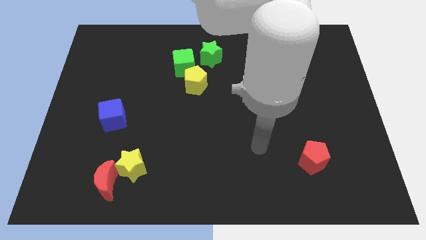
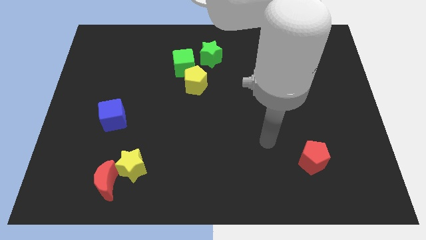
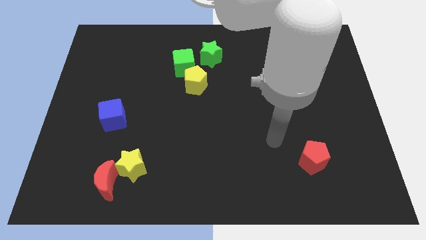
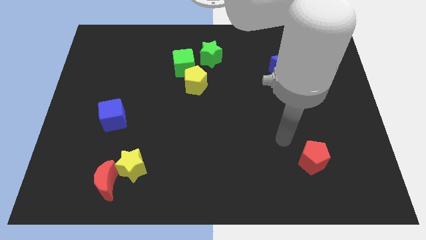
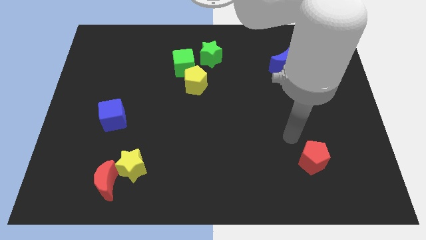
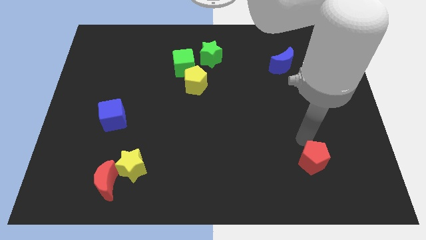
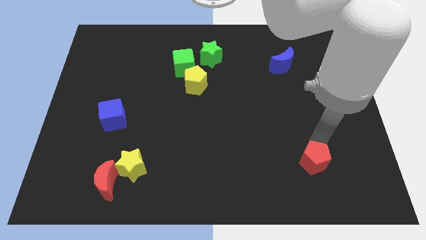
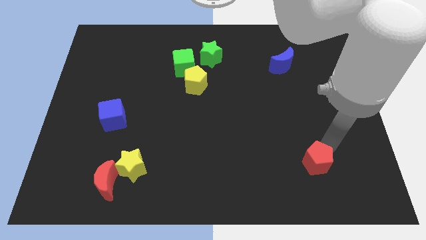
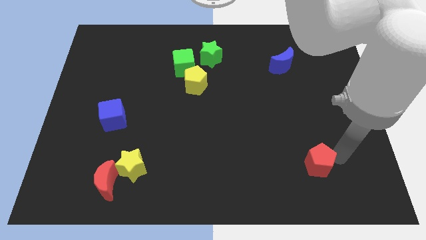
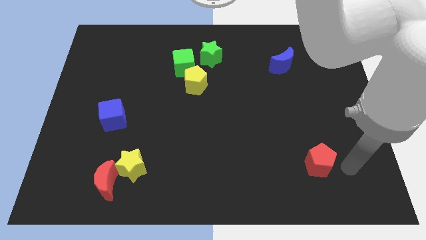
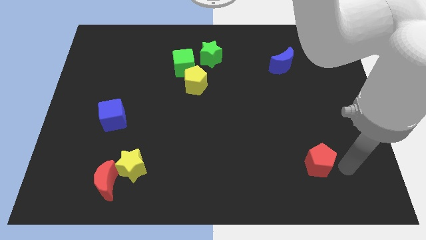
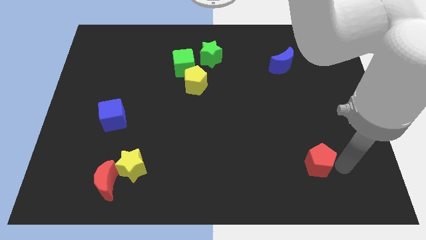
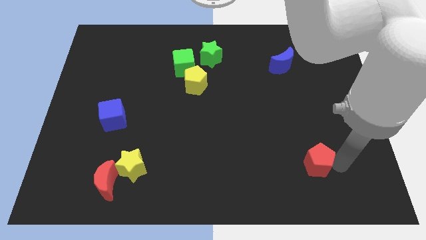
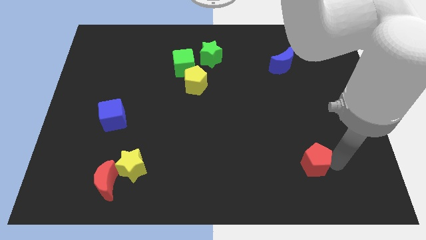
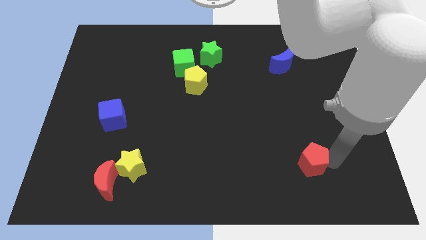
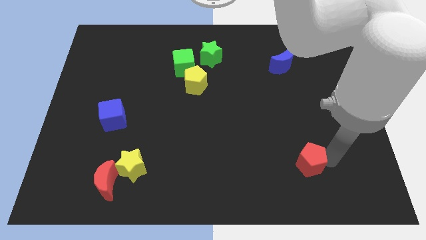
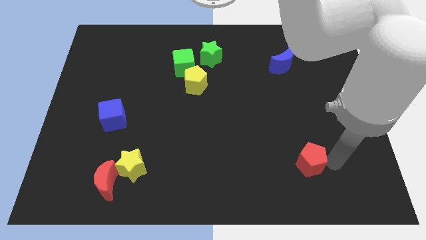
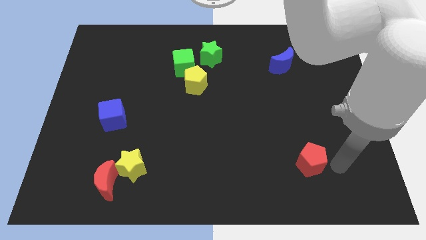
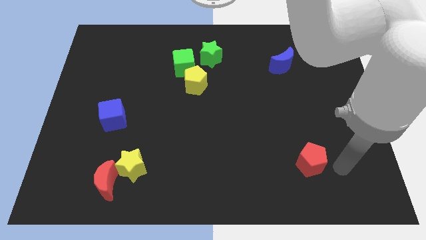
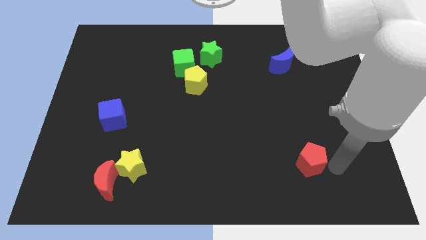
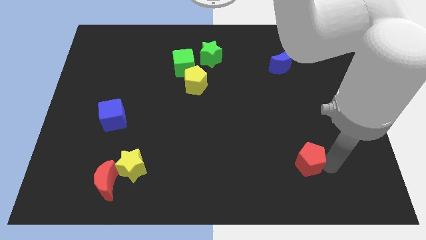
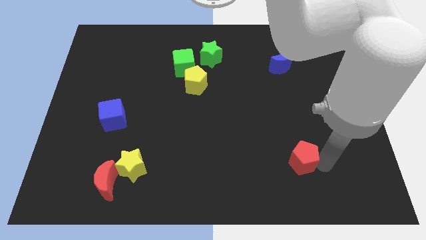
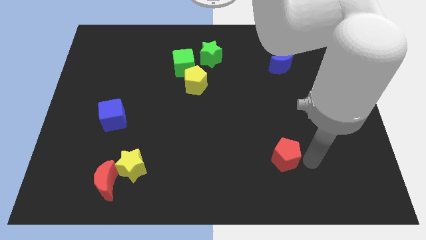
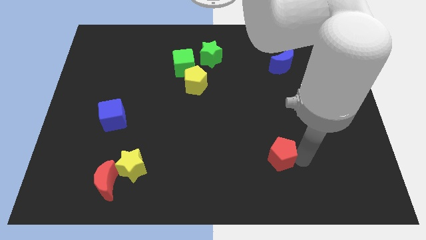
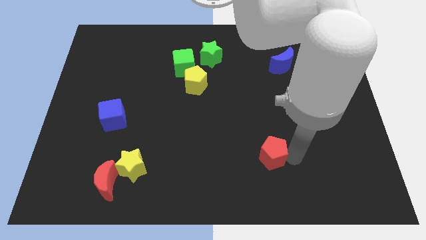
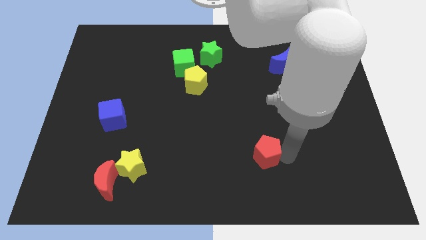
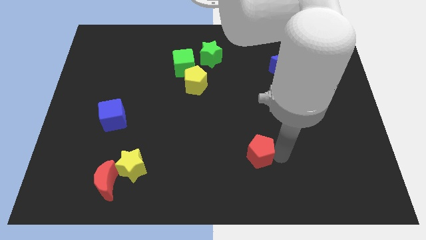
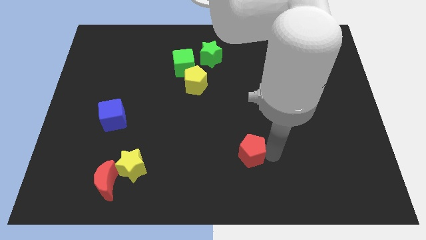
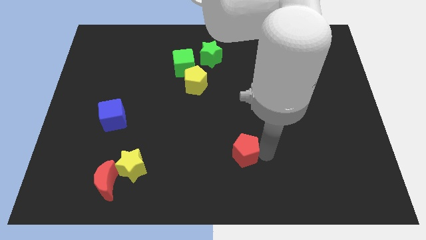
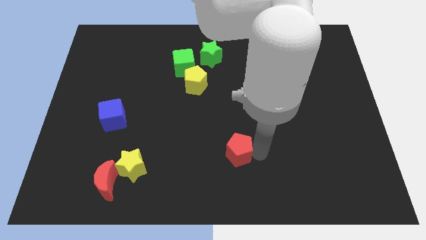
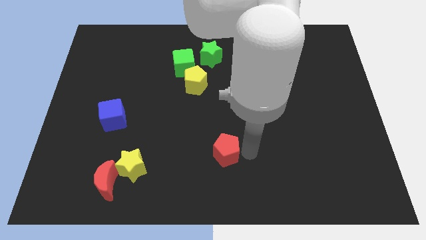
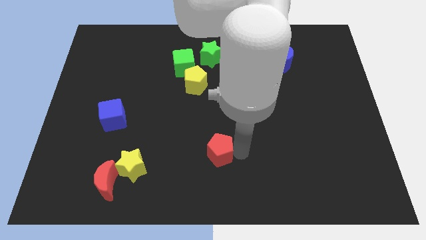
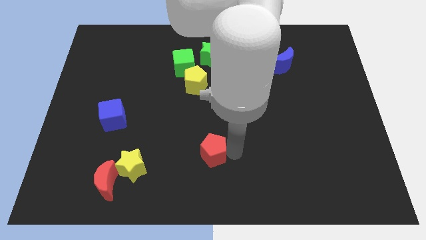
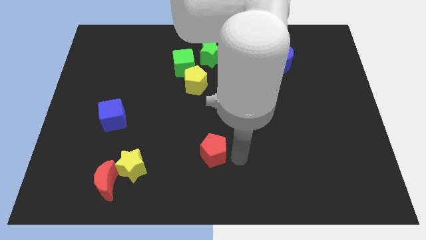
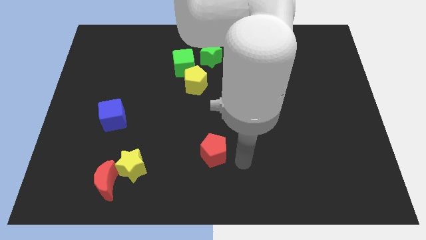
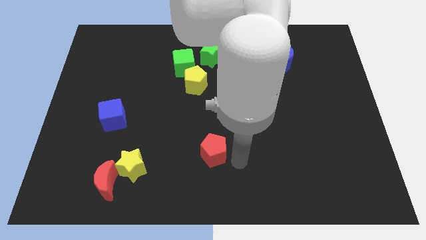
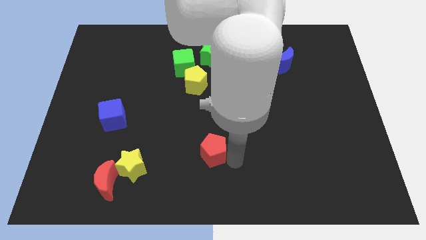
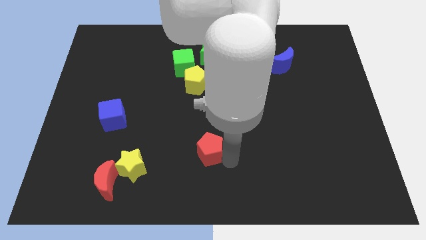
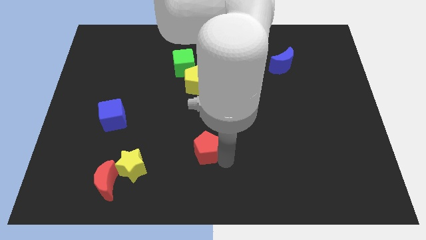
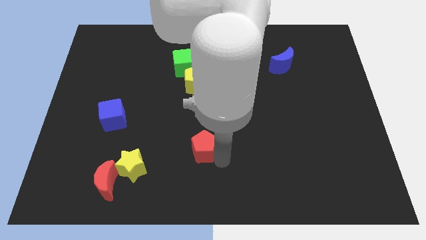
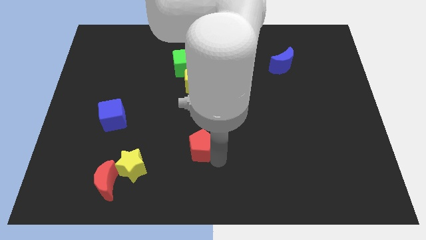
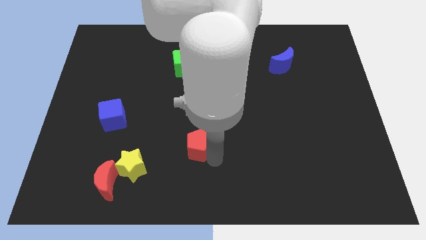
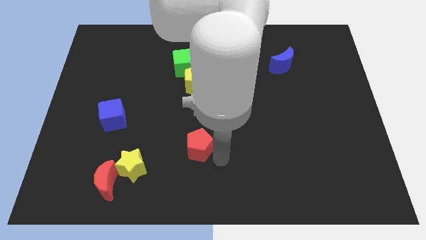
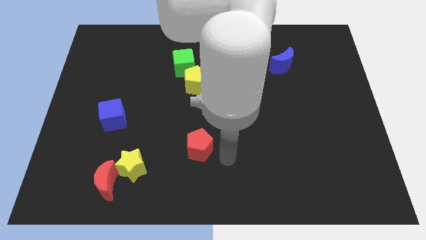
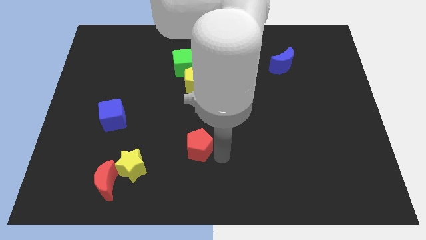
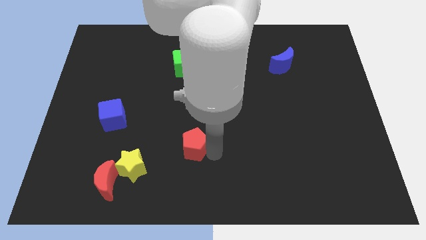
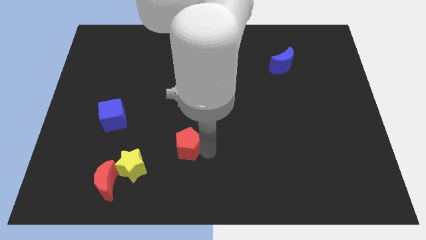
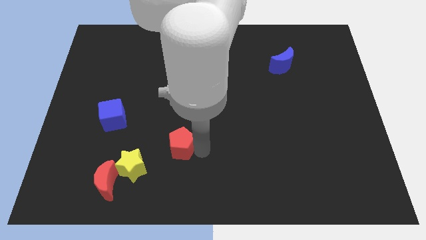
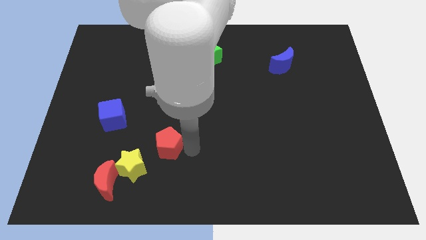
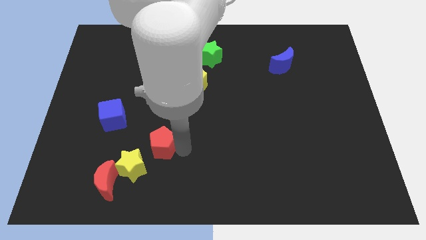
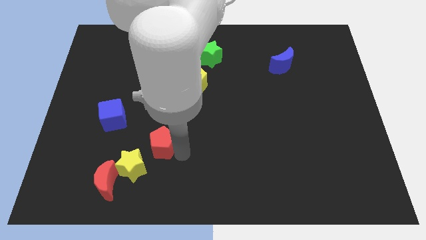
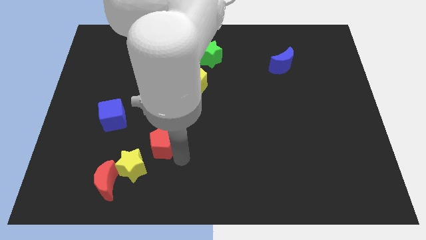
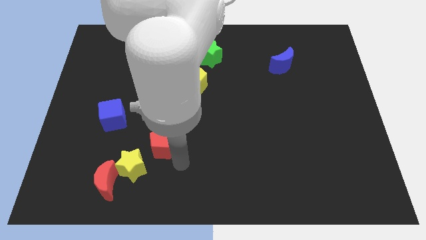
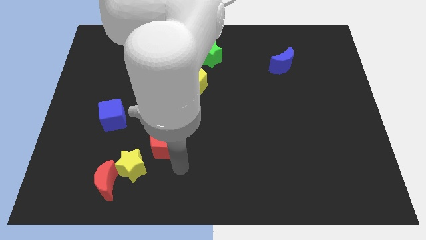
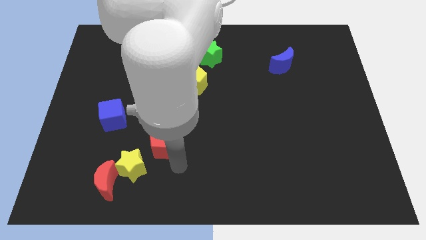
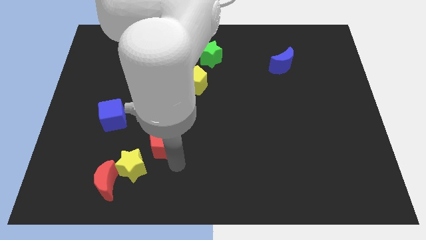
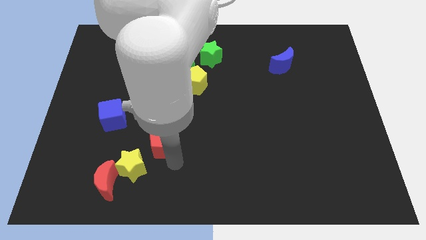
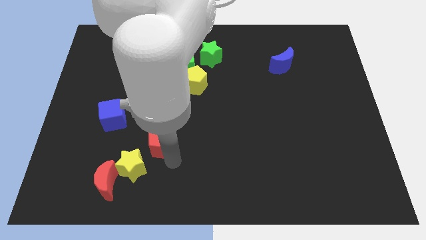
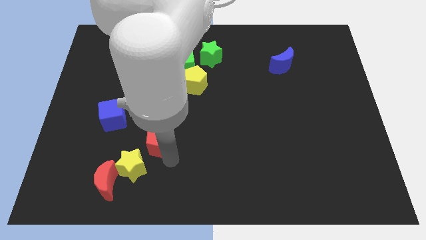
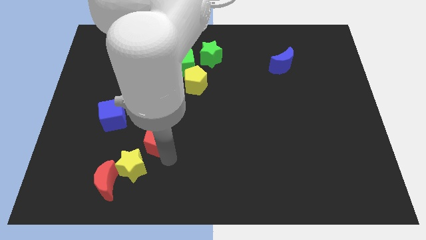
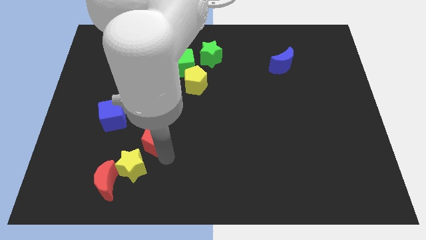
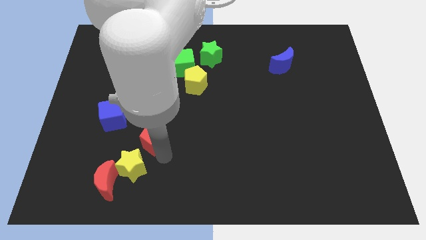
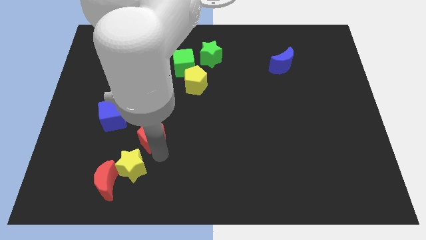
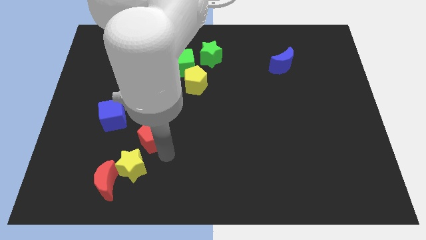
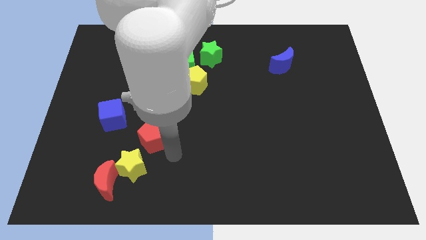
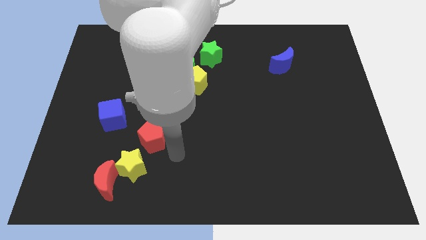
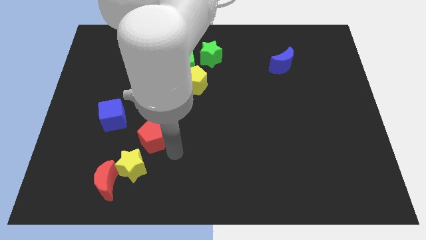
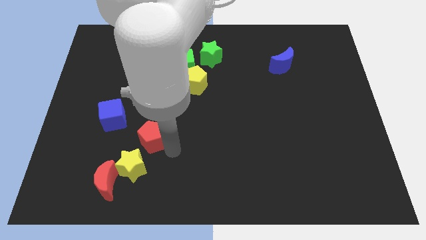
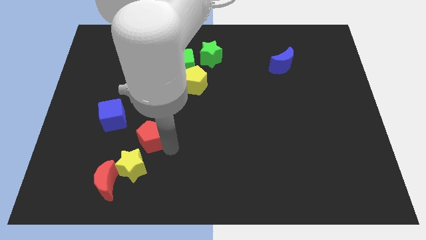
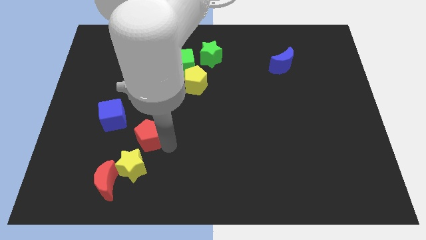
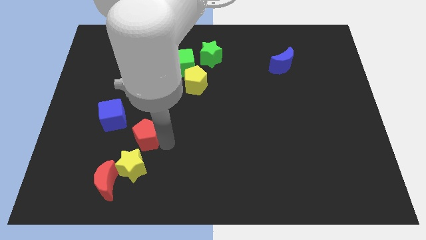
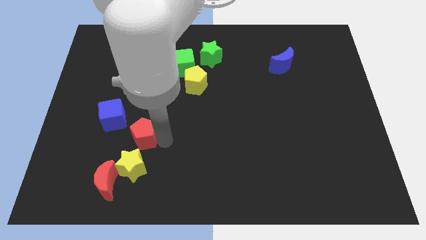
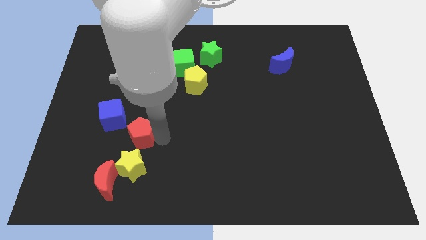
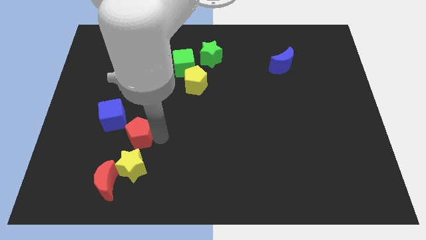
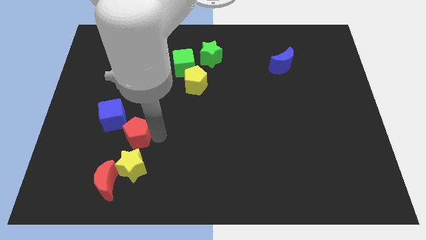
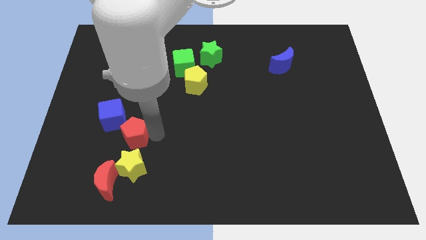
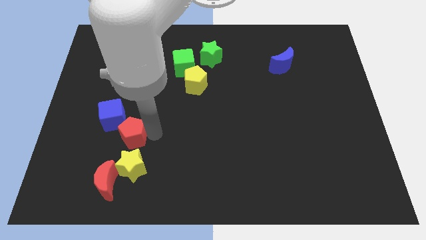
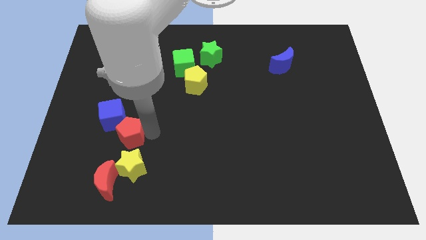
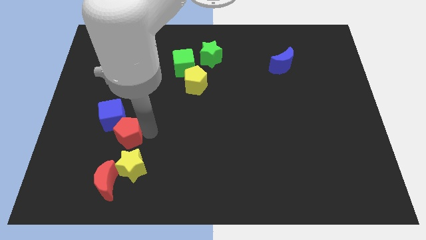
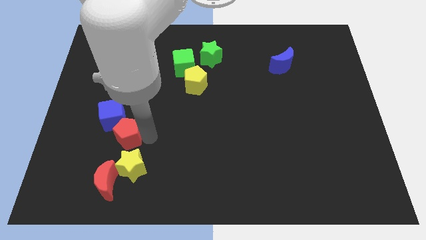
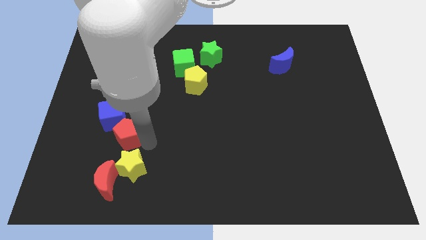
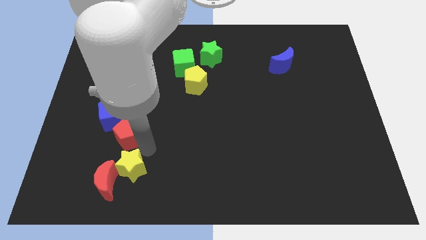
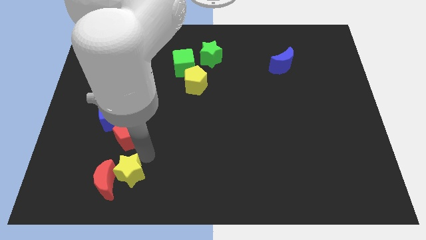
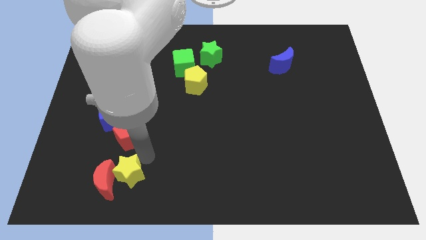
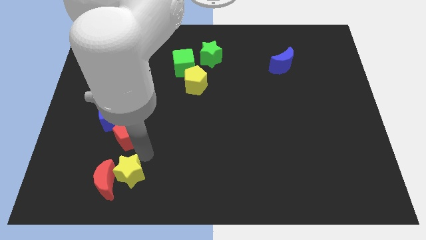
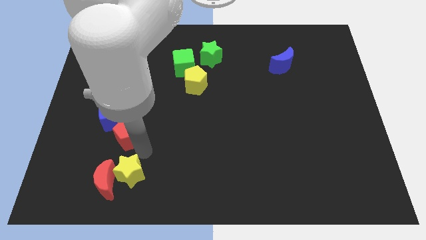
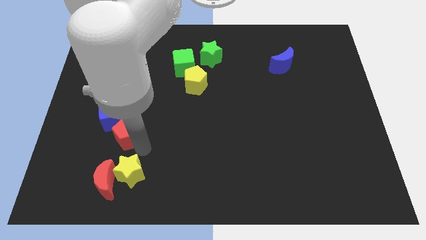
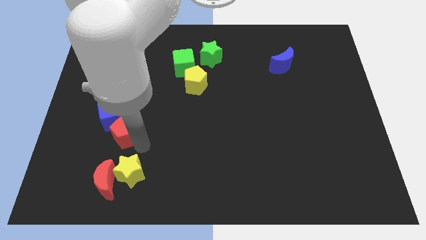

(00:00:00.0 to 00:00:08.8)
push the red pentagon towards the blue cube
